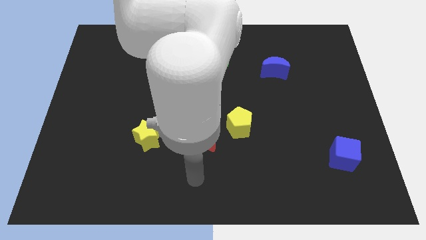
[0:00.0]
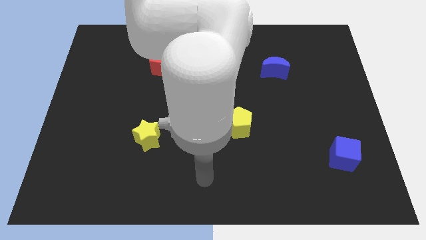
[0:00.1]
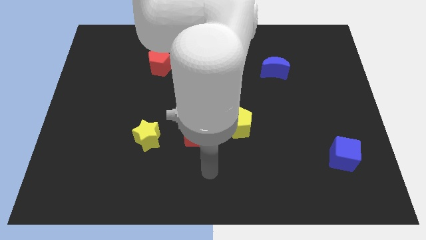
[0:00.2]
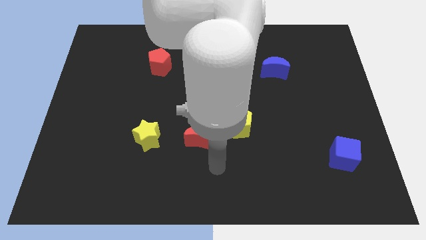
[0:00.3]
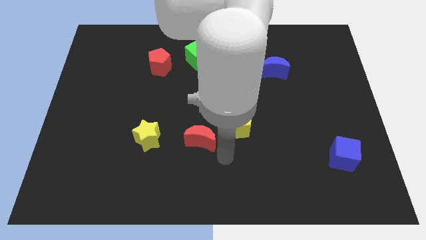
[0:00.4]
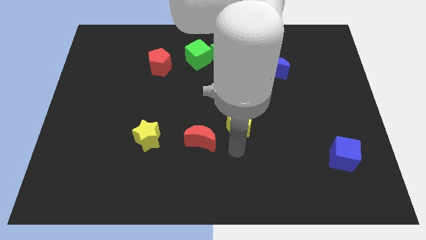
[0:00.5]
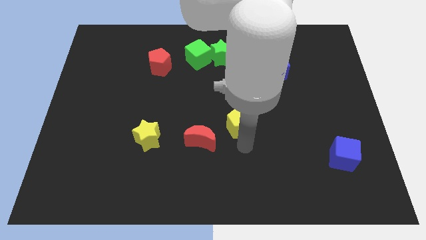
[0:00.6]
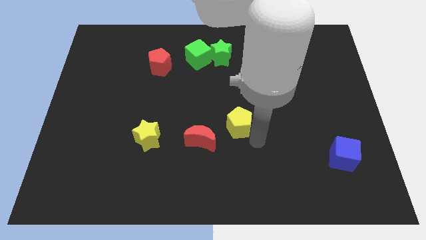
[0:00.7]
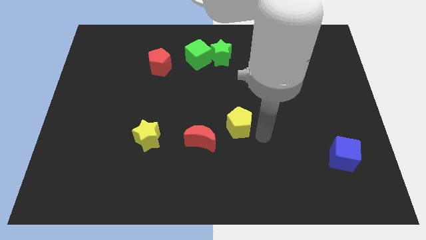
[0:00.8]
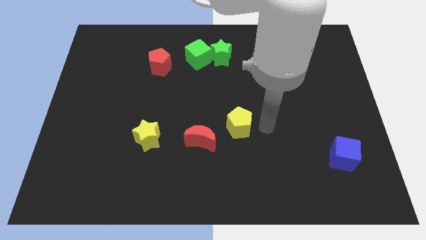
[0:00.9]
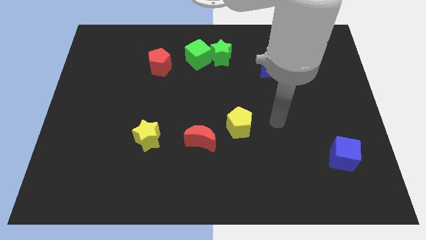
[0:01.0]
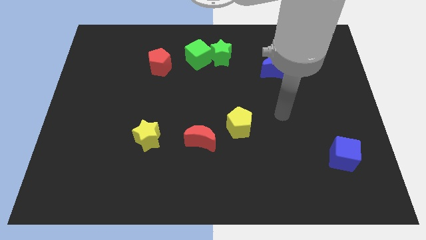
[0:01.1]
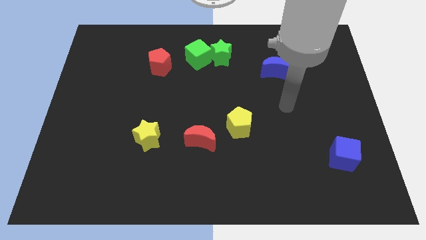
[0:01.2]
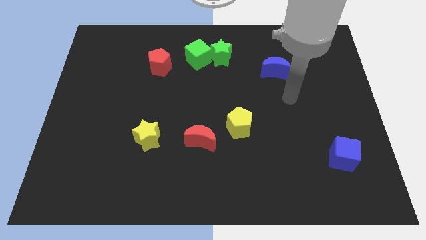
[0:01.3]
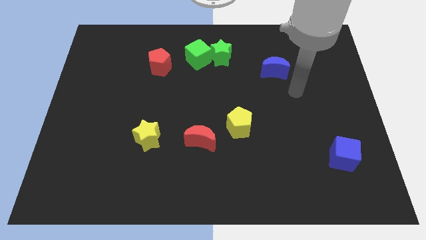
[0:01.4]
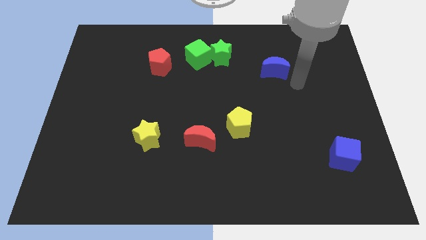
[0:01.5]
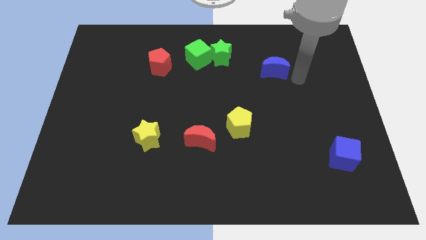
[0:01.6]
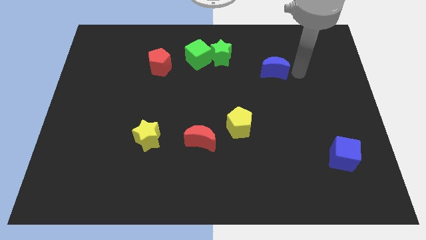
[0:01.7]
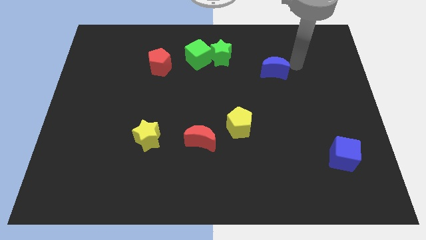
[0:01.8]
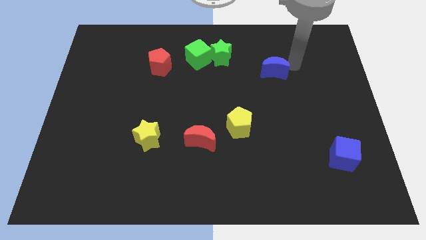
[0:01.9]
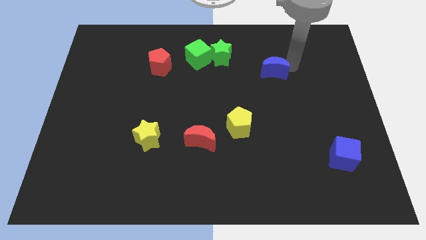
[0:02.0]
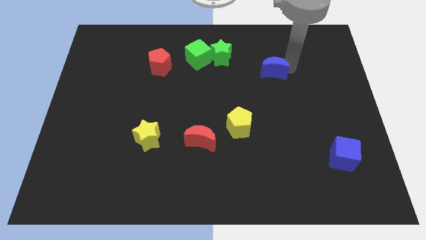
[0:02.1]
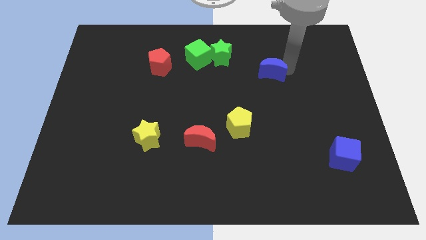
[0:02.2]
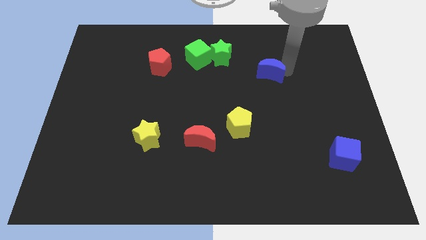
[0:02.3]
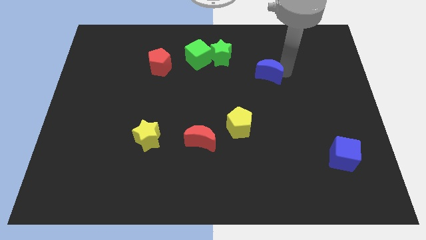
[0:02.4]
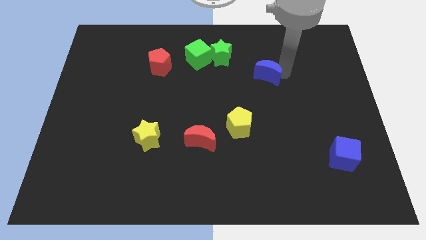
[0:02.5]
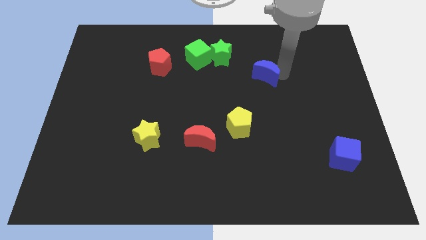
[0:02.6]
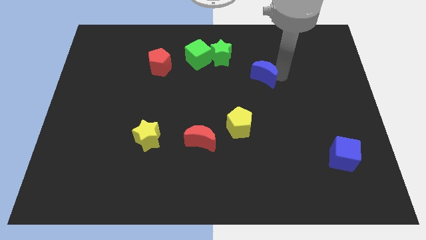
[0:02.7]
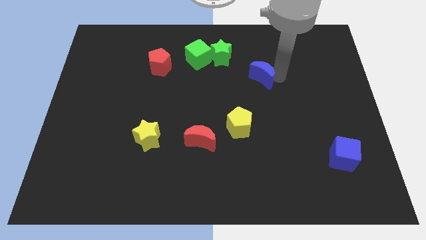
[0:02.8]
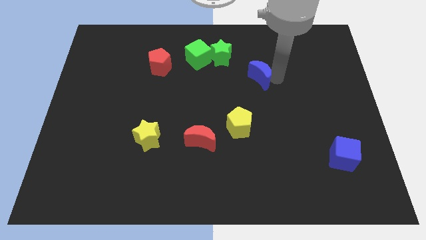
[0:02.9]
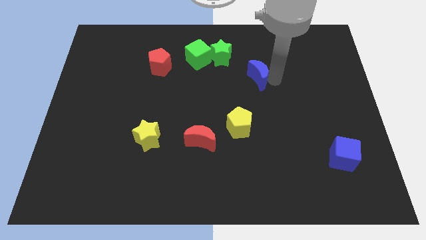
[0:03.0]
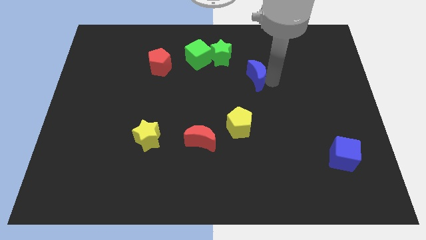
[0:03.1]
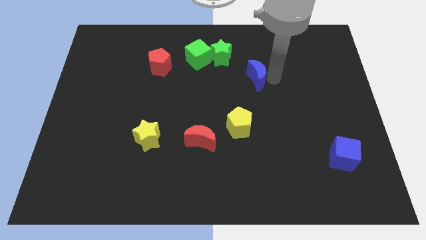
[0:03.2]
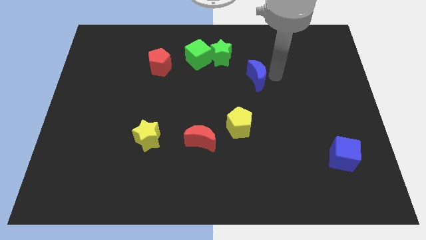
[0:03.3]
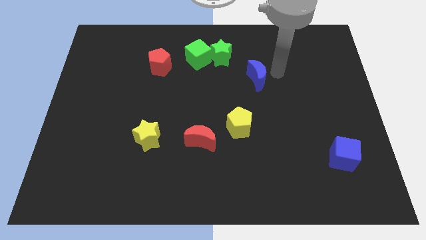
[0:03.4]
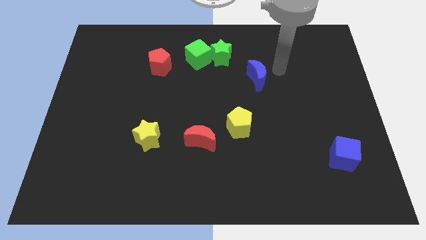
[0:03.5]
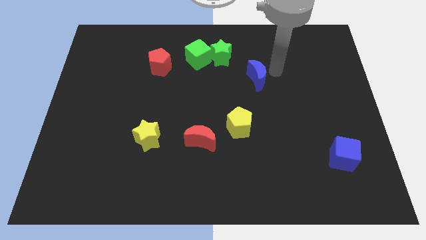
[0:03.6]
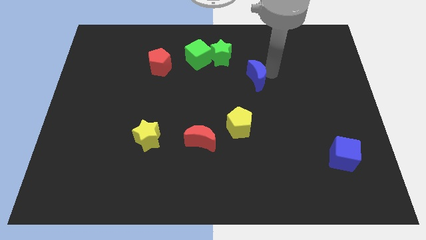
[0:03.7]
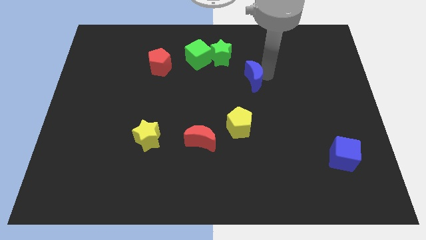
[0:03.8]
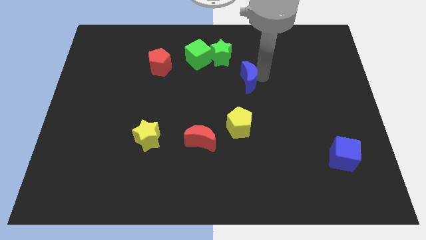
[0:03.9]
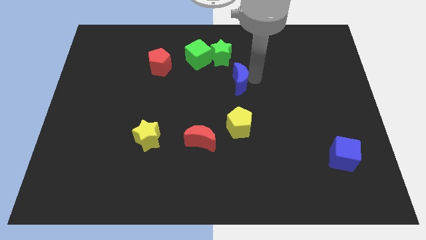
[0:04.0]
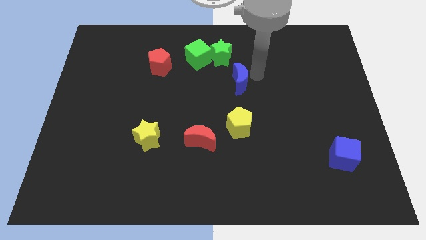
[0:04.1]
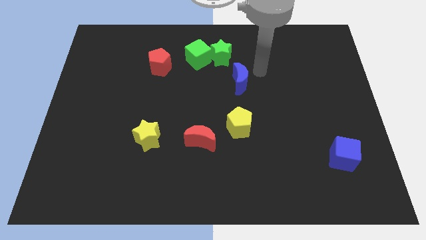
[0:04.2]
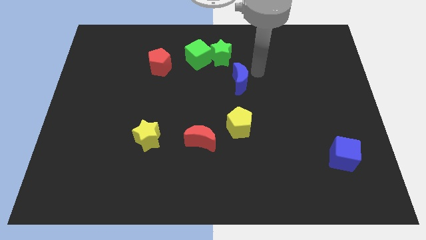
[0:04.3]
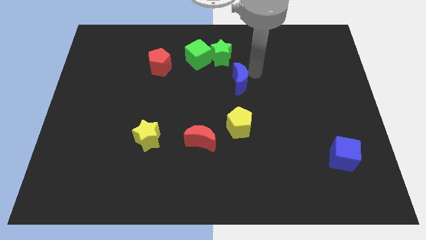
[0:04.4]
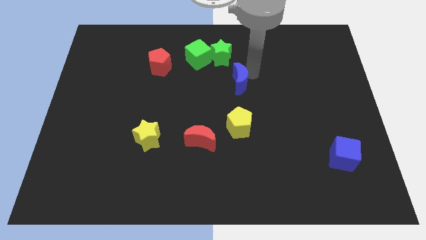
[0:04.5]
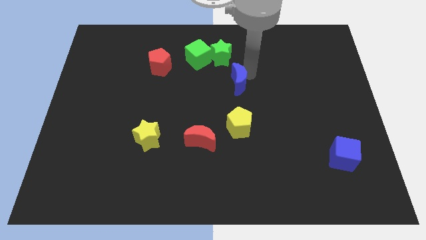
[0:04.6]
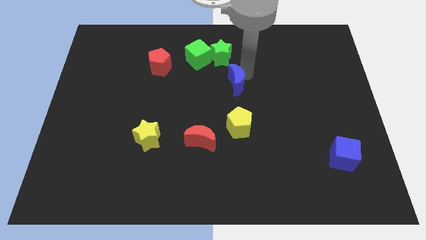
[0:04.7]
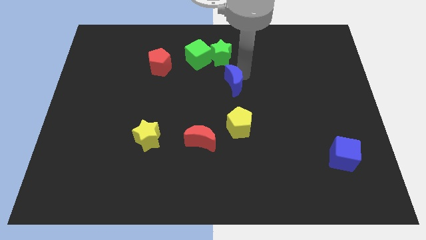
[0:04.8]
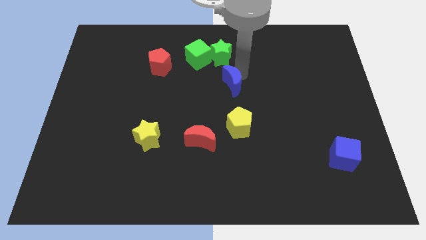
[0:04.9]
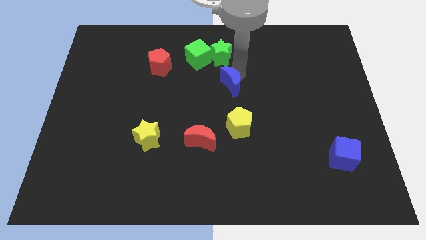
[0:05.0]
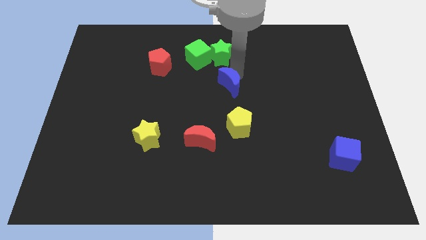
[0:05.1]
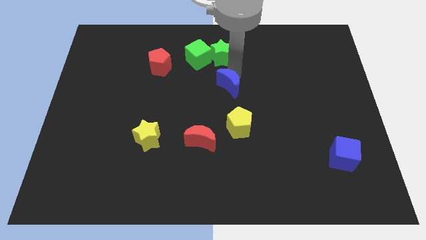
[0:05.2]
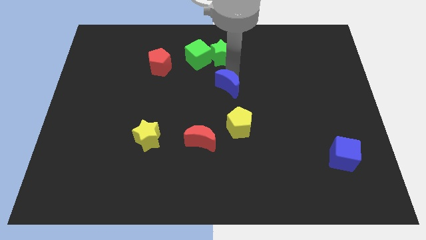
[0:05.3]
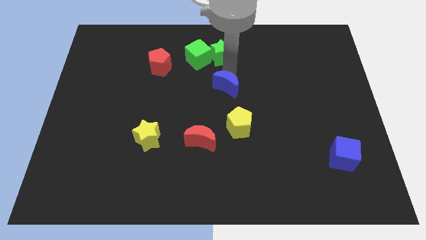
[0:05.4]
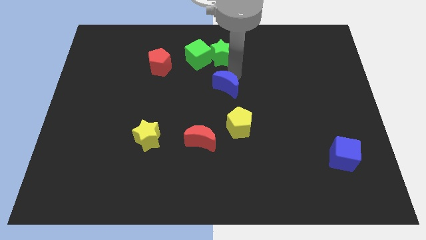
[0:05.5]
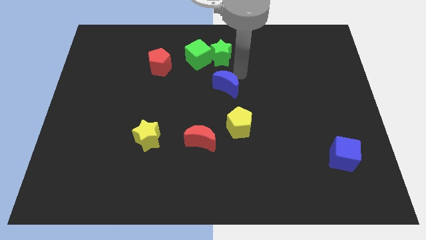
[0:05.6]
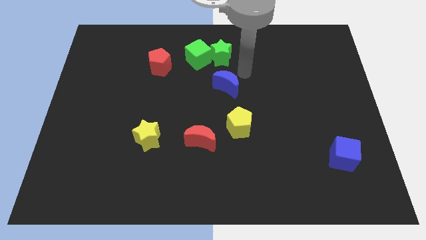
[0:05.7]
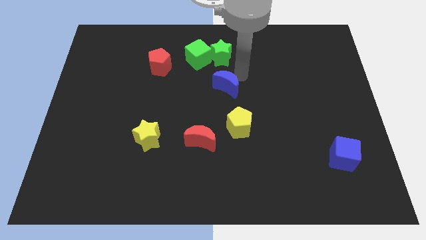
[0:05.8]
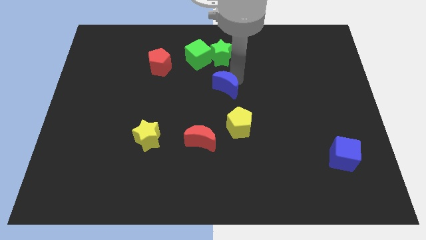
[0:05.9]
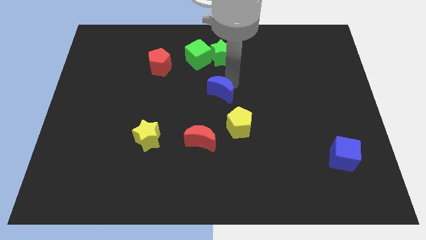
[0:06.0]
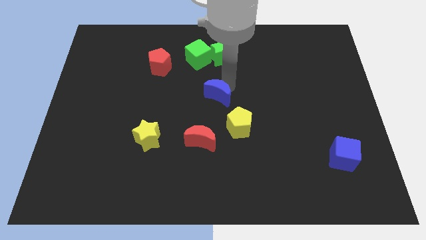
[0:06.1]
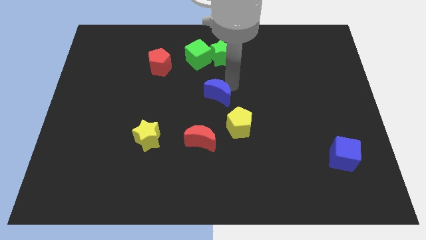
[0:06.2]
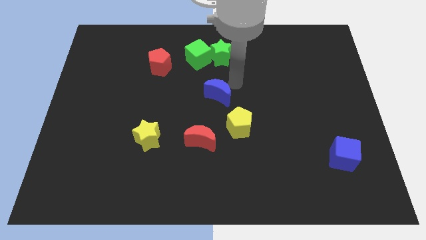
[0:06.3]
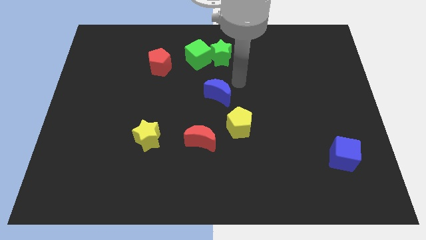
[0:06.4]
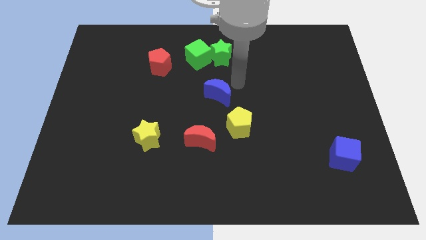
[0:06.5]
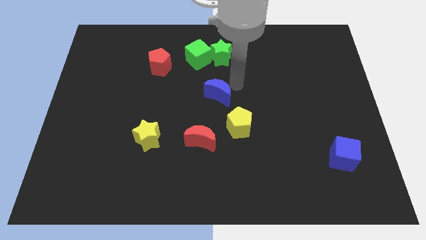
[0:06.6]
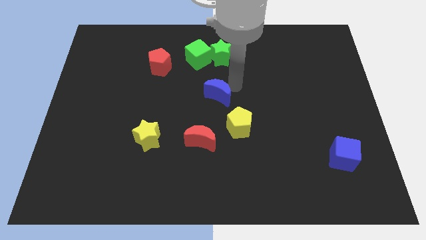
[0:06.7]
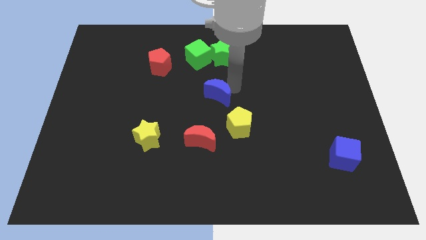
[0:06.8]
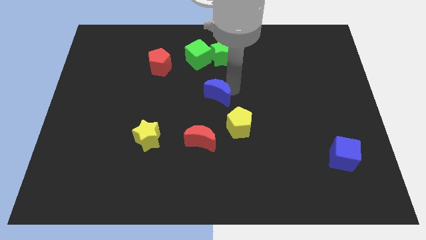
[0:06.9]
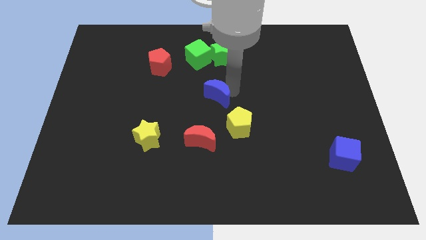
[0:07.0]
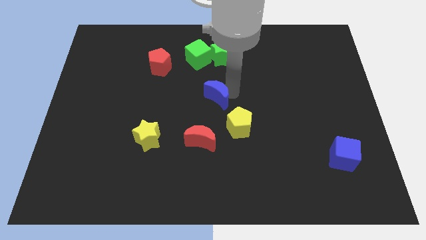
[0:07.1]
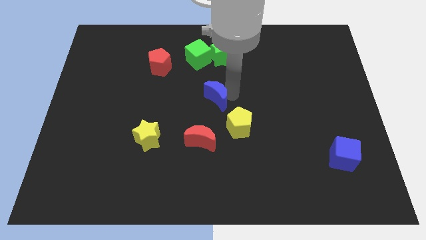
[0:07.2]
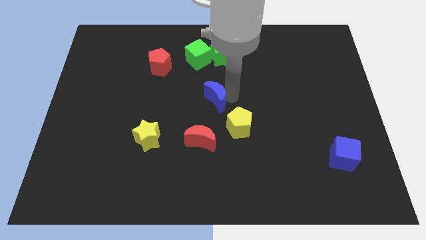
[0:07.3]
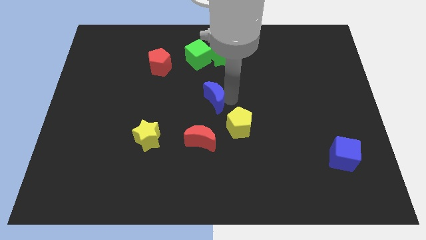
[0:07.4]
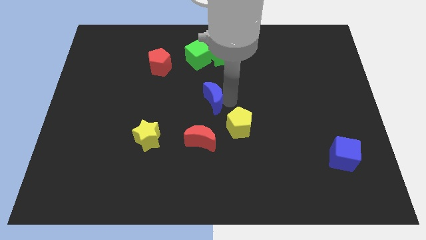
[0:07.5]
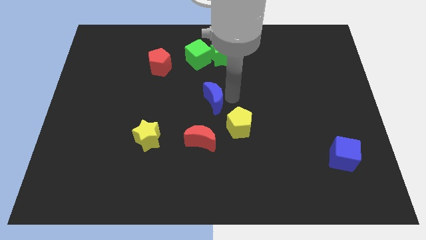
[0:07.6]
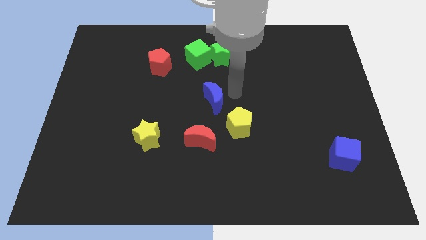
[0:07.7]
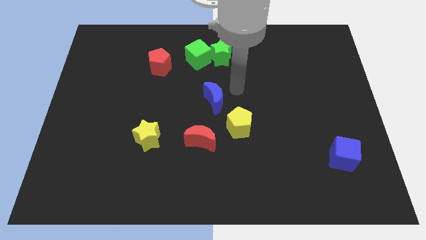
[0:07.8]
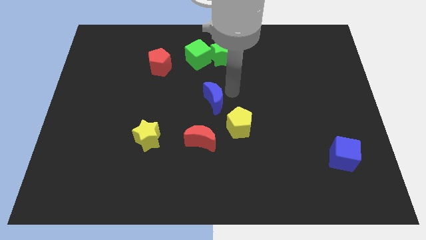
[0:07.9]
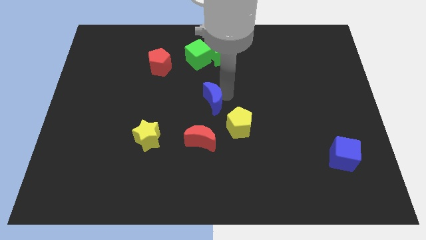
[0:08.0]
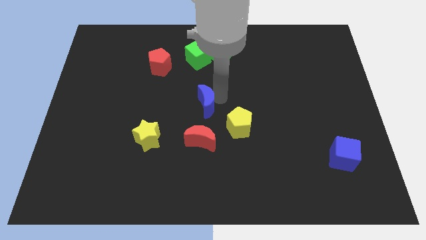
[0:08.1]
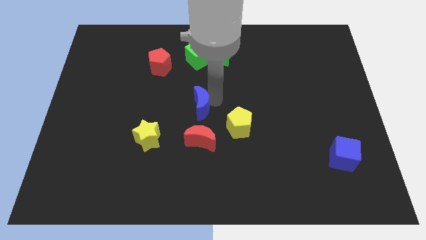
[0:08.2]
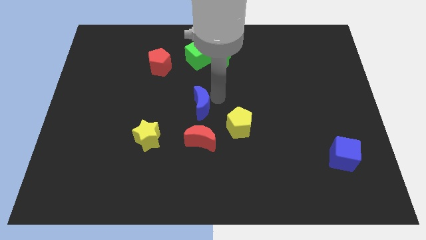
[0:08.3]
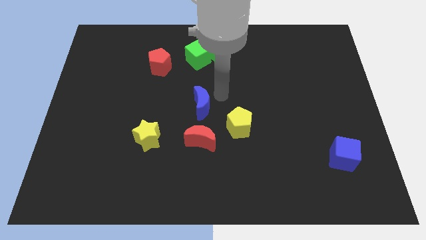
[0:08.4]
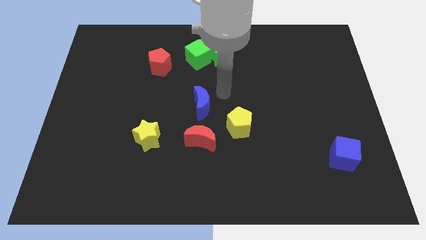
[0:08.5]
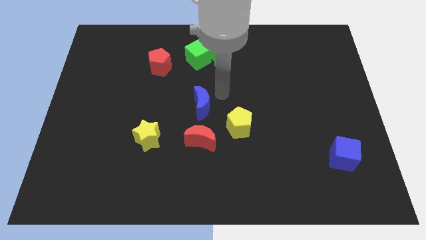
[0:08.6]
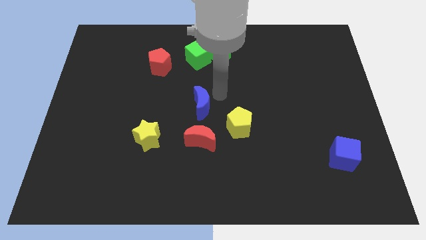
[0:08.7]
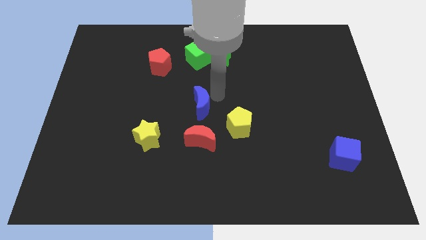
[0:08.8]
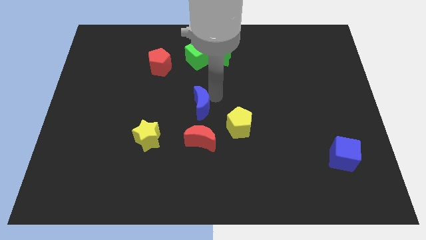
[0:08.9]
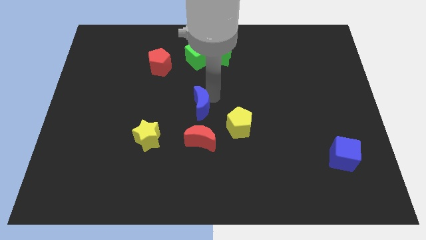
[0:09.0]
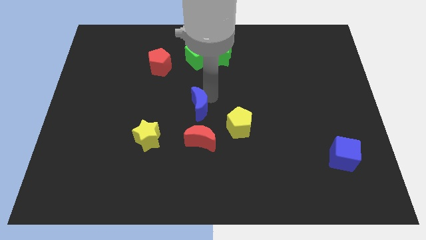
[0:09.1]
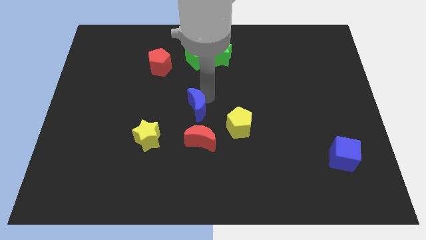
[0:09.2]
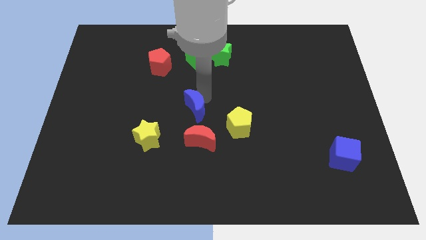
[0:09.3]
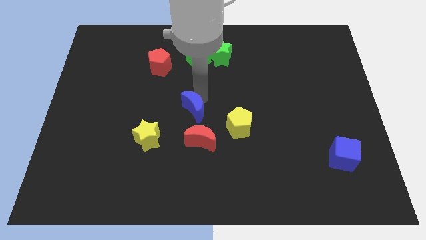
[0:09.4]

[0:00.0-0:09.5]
slide the blue moon diagonally up and to the left of the red moon
